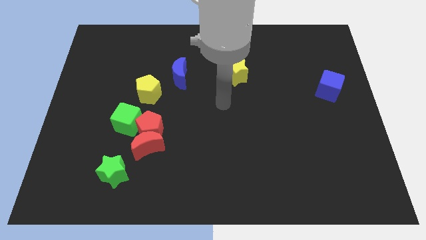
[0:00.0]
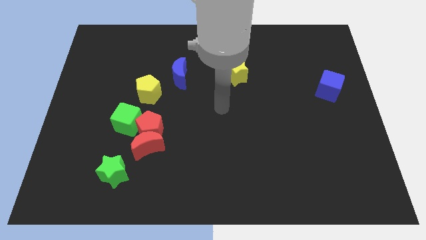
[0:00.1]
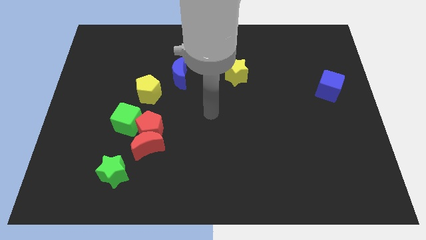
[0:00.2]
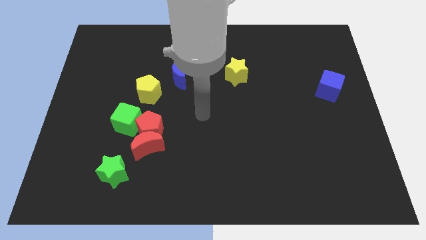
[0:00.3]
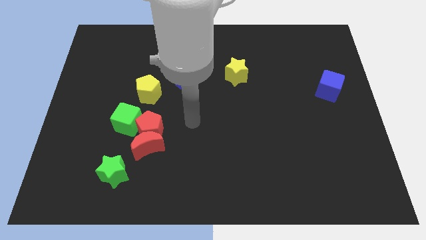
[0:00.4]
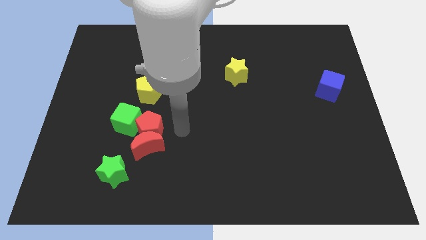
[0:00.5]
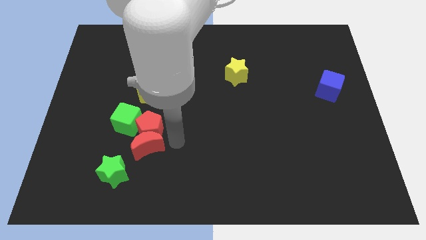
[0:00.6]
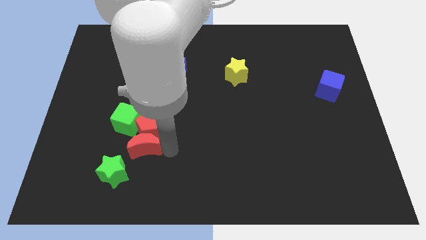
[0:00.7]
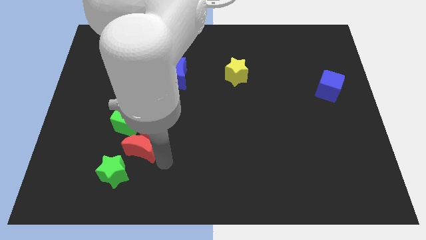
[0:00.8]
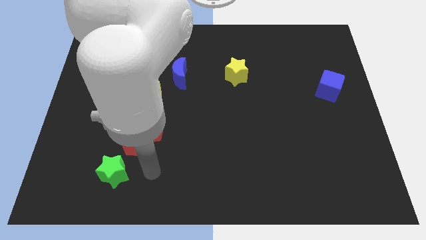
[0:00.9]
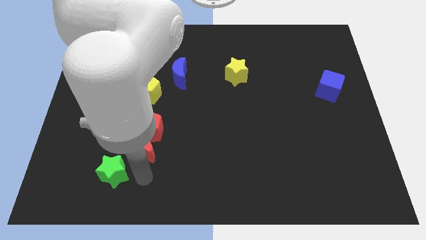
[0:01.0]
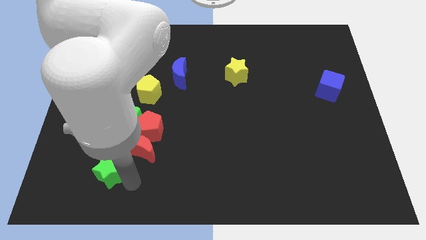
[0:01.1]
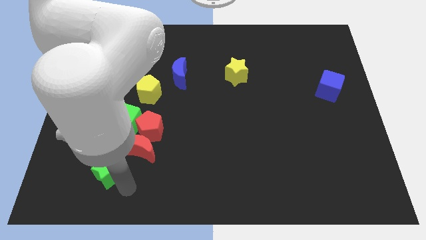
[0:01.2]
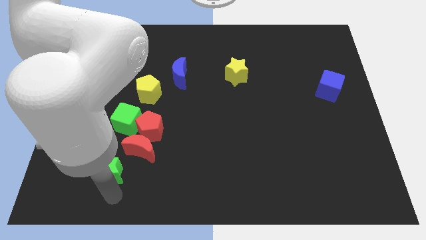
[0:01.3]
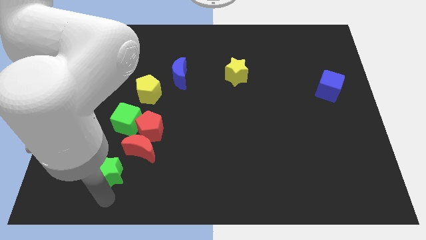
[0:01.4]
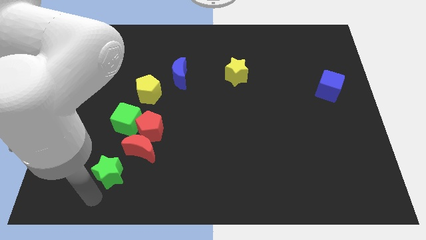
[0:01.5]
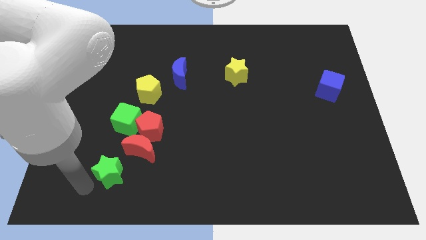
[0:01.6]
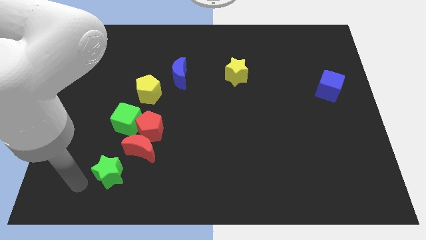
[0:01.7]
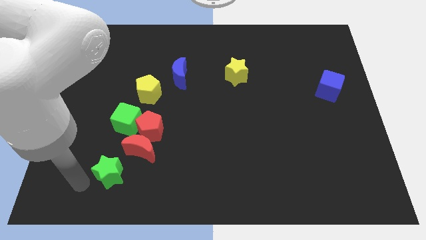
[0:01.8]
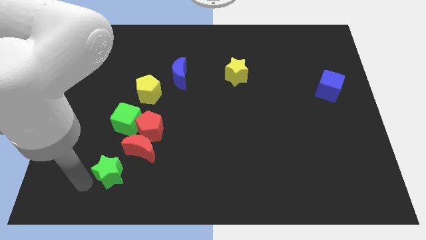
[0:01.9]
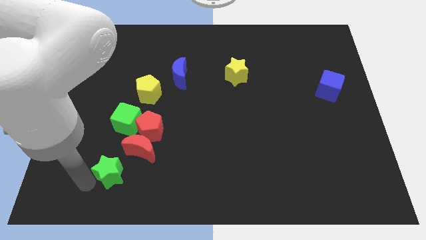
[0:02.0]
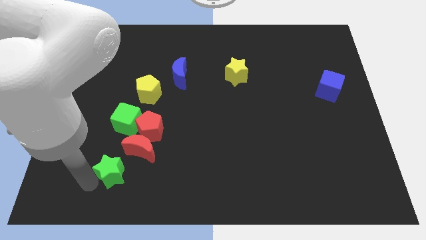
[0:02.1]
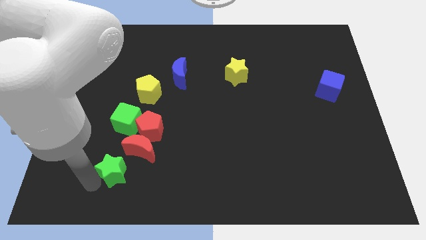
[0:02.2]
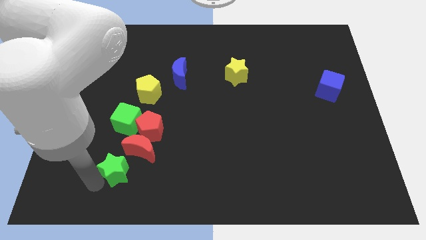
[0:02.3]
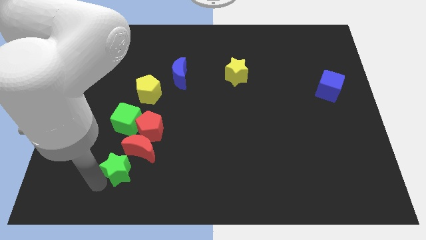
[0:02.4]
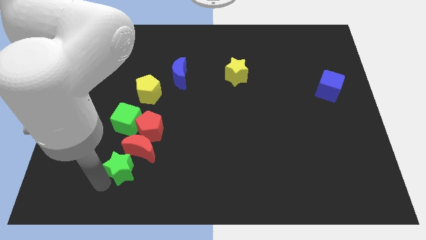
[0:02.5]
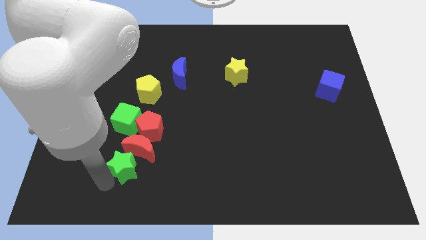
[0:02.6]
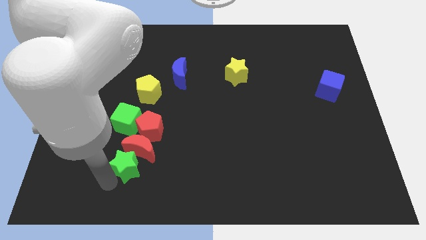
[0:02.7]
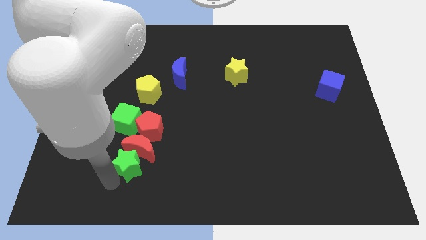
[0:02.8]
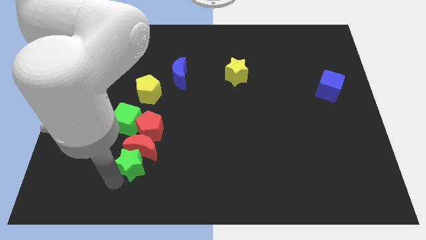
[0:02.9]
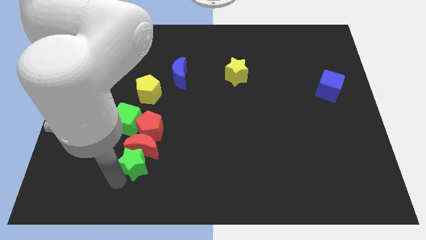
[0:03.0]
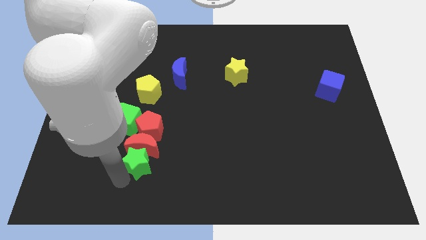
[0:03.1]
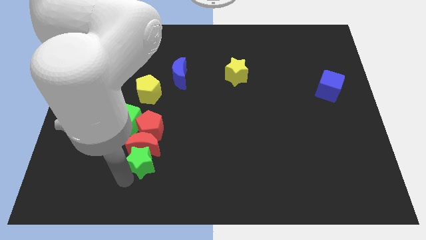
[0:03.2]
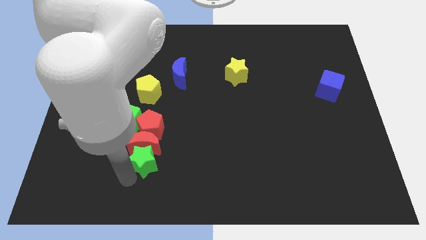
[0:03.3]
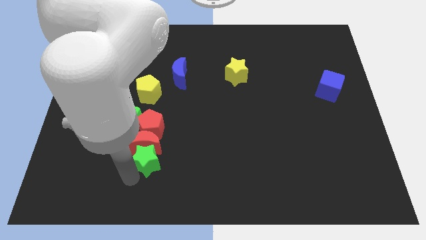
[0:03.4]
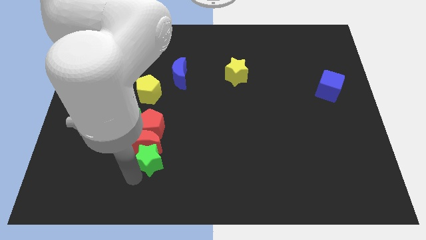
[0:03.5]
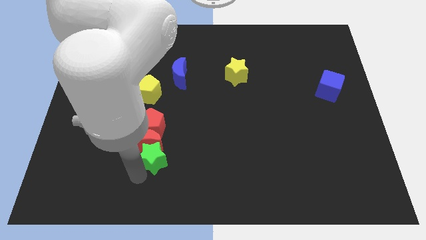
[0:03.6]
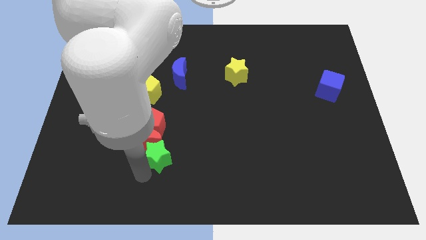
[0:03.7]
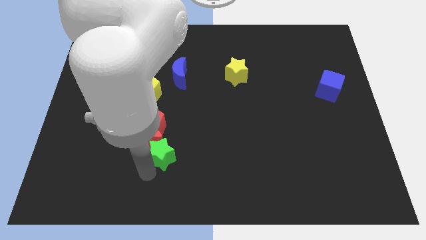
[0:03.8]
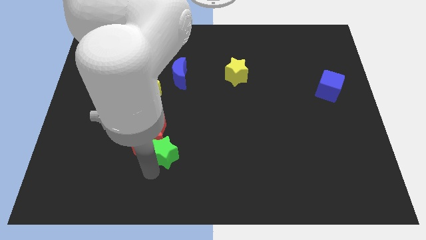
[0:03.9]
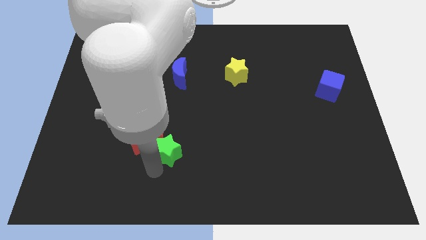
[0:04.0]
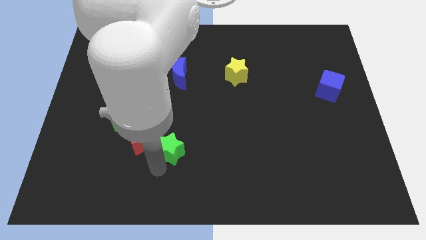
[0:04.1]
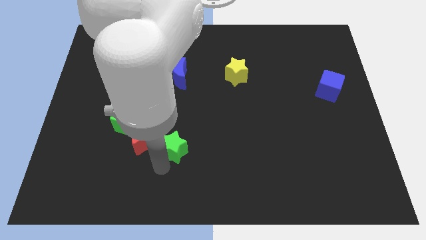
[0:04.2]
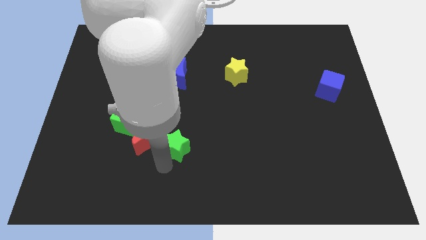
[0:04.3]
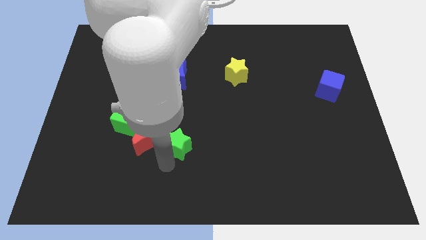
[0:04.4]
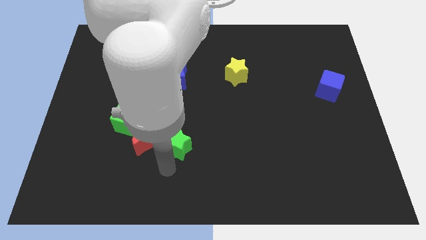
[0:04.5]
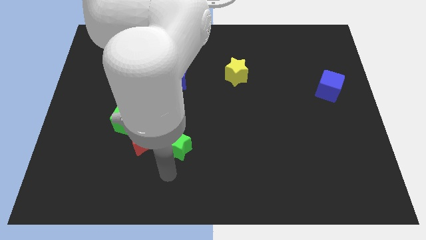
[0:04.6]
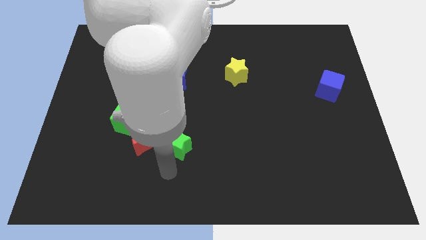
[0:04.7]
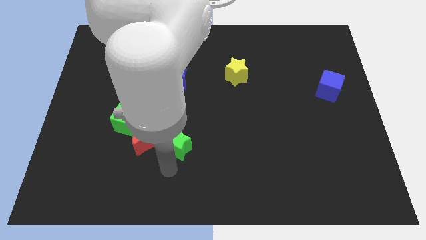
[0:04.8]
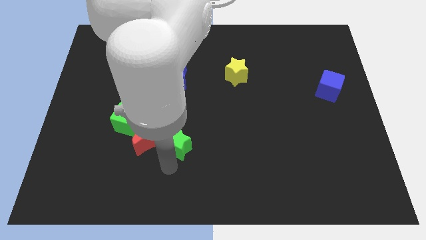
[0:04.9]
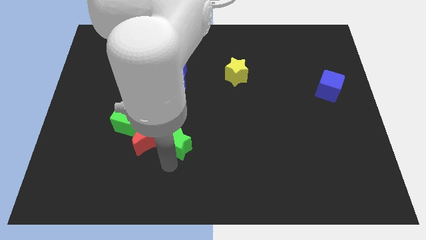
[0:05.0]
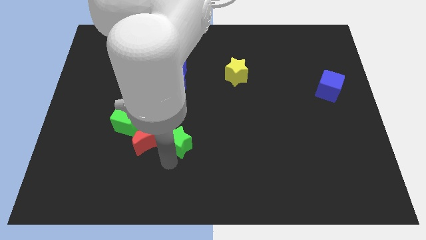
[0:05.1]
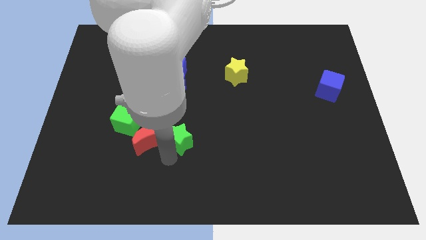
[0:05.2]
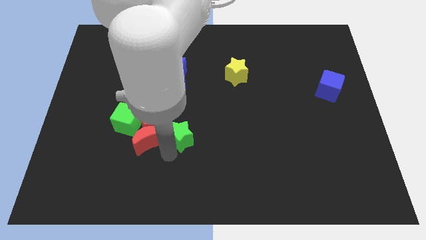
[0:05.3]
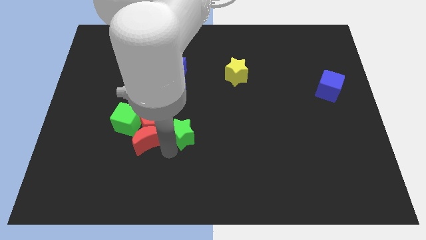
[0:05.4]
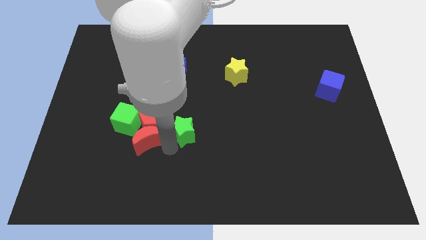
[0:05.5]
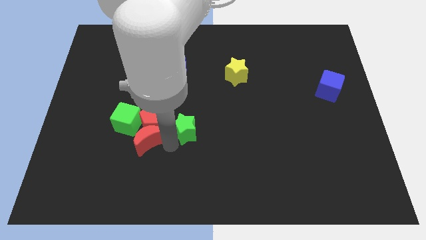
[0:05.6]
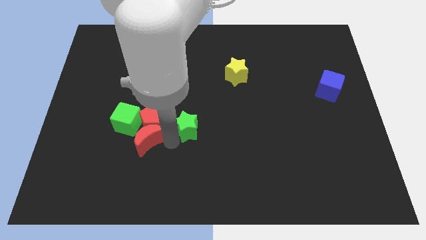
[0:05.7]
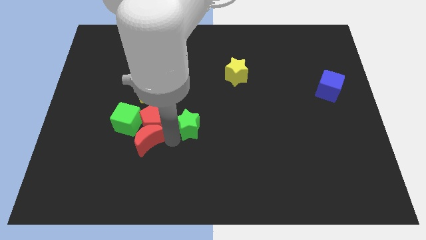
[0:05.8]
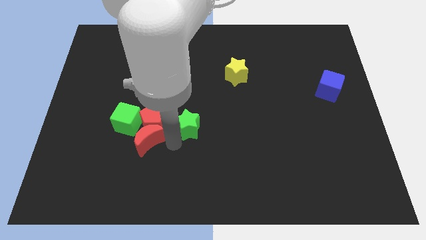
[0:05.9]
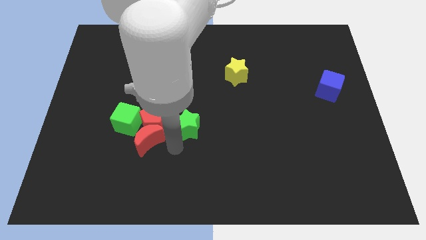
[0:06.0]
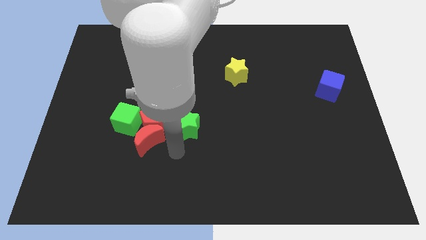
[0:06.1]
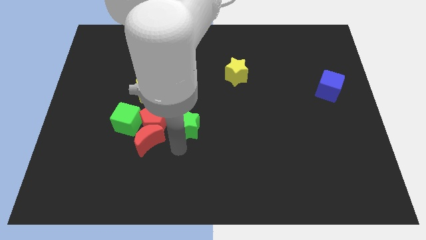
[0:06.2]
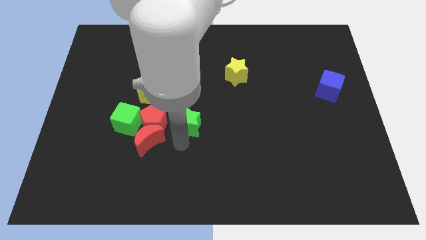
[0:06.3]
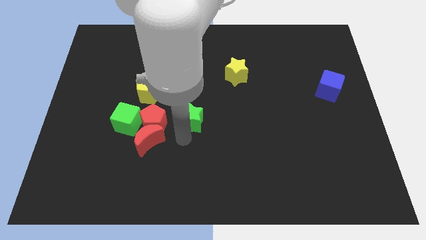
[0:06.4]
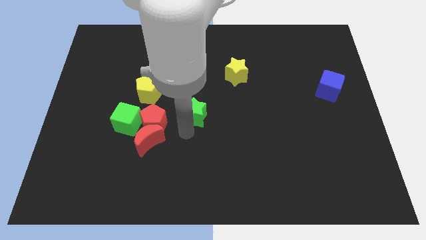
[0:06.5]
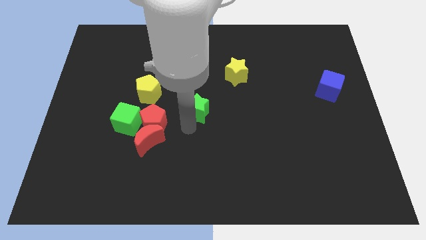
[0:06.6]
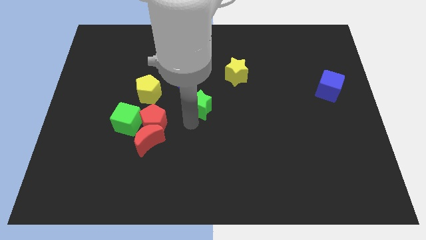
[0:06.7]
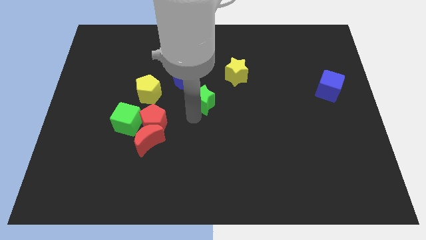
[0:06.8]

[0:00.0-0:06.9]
move the green star diagonally down and to the left of the yellow star
